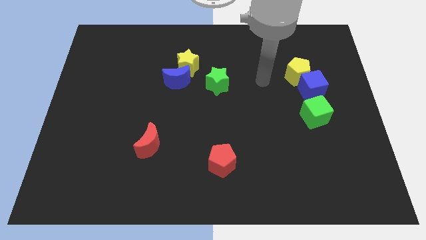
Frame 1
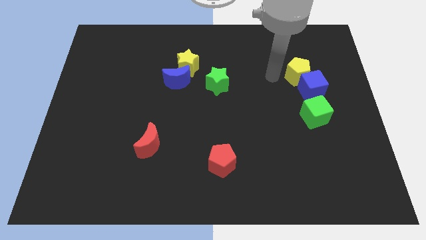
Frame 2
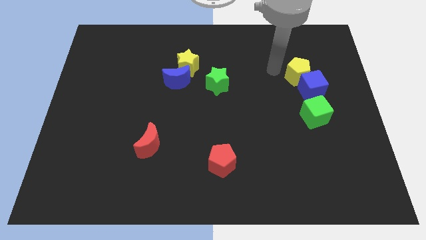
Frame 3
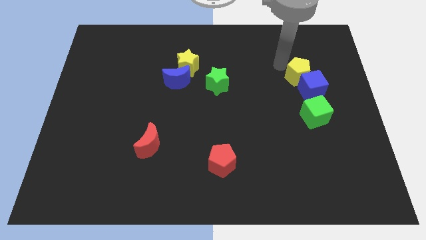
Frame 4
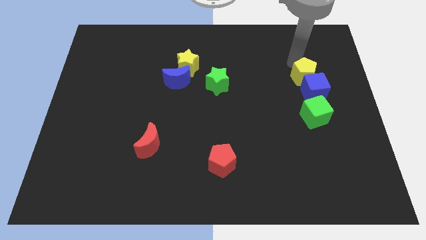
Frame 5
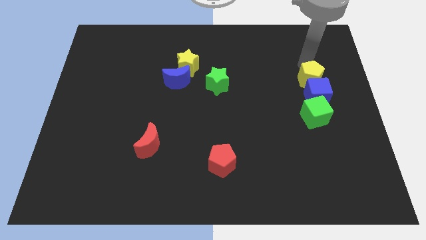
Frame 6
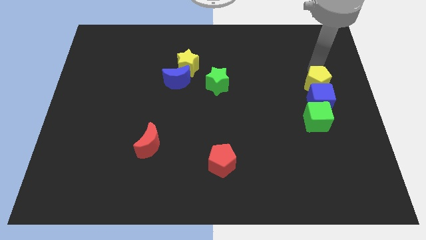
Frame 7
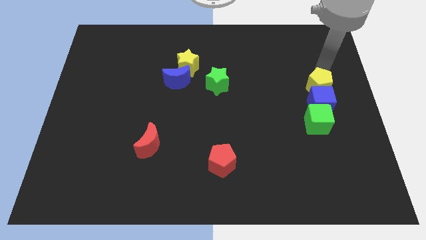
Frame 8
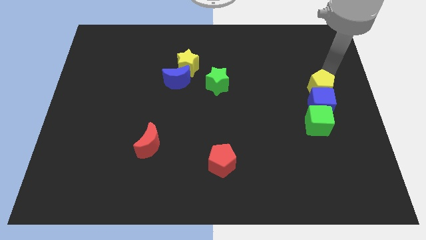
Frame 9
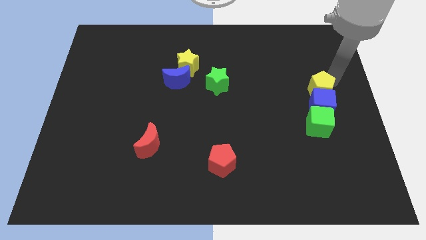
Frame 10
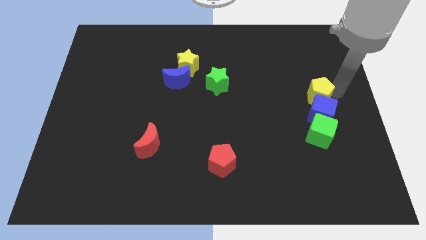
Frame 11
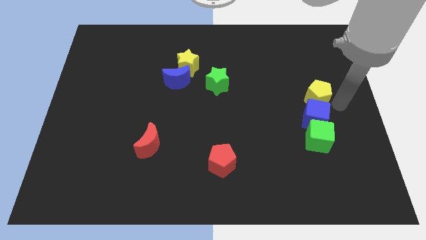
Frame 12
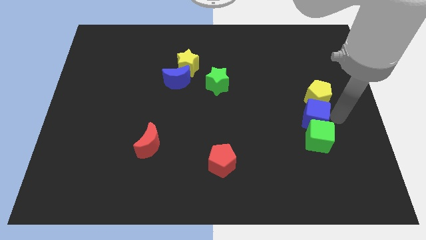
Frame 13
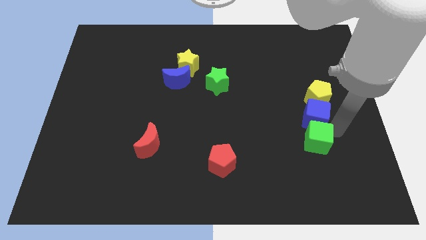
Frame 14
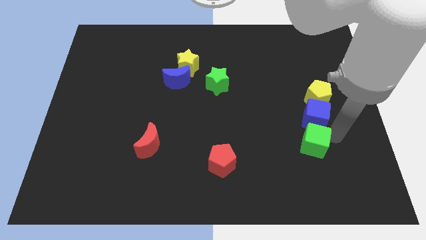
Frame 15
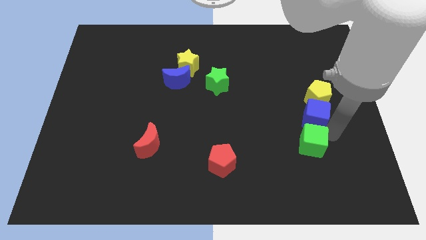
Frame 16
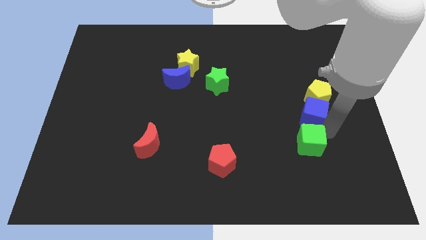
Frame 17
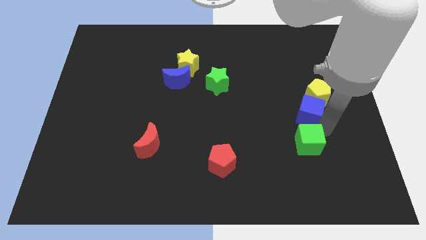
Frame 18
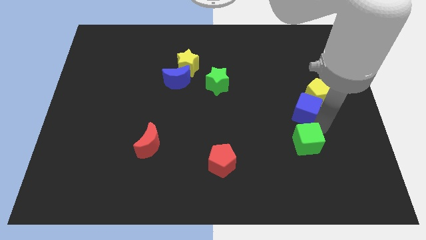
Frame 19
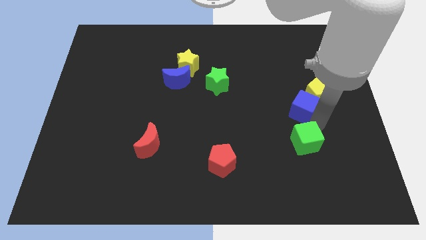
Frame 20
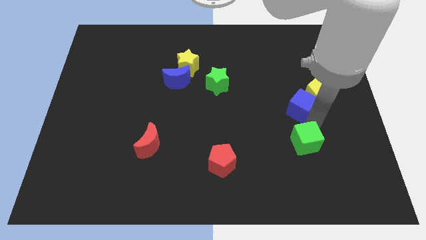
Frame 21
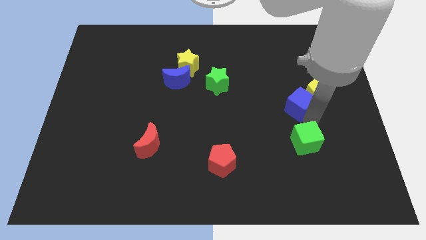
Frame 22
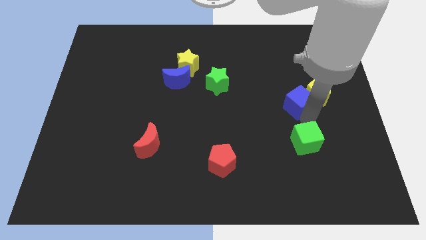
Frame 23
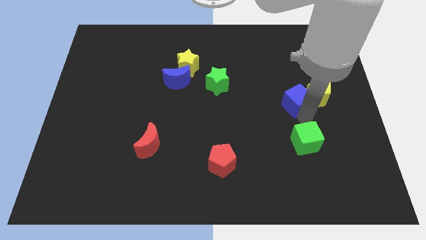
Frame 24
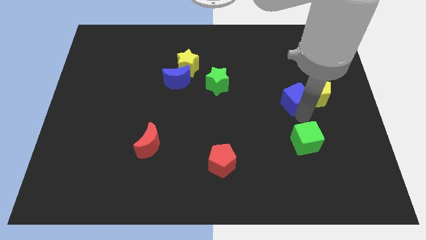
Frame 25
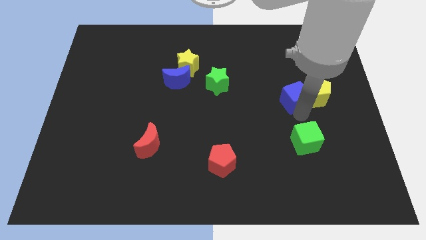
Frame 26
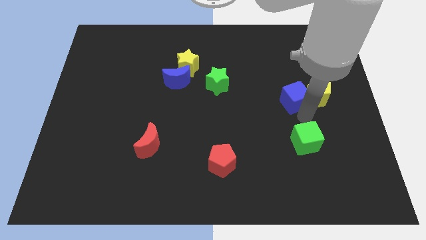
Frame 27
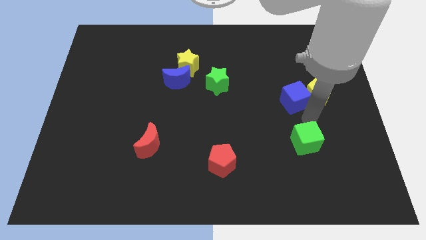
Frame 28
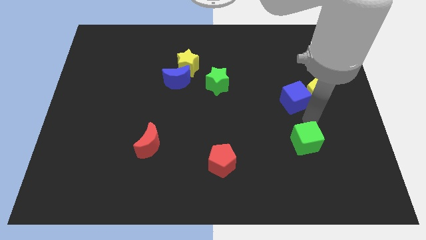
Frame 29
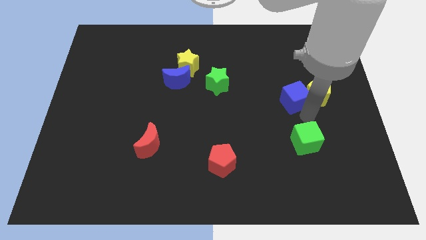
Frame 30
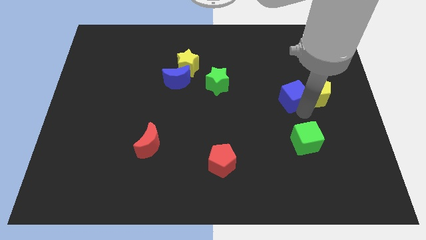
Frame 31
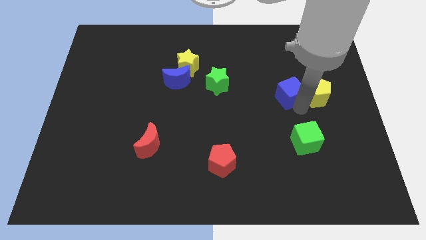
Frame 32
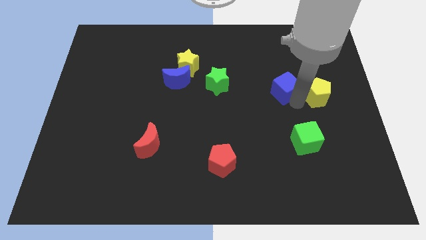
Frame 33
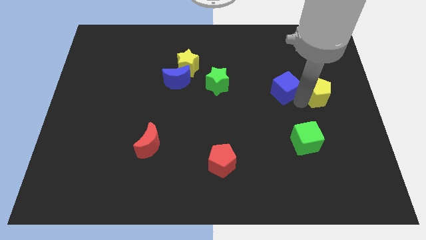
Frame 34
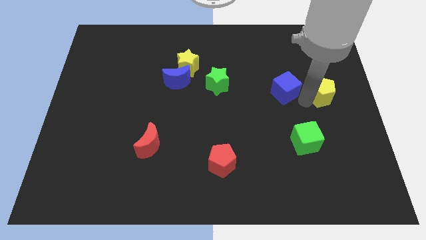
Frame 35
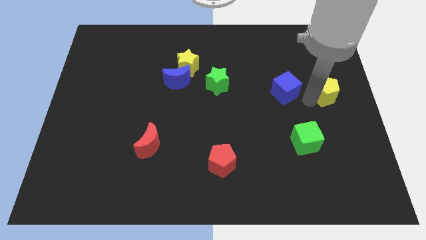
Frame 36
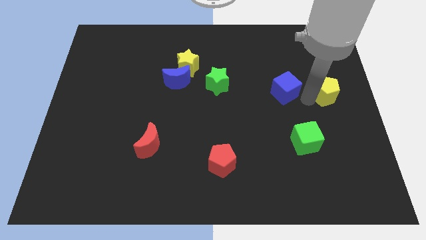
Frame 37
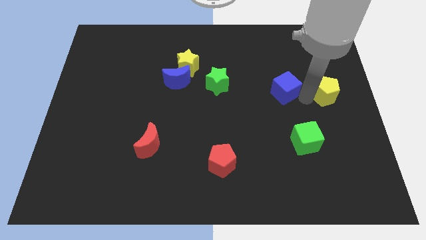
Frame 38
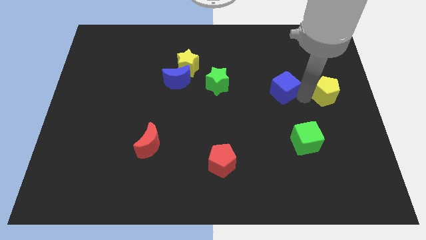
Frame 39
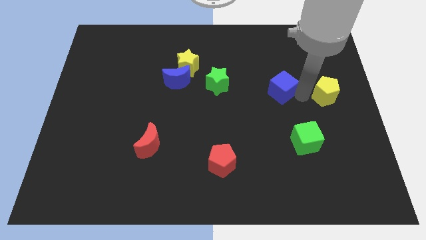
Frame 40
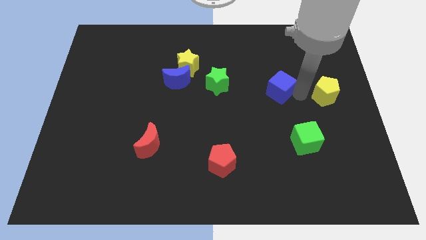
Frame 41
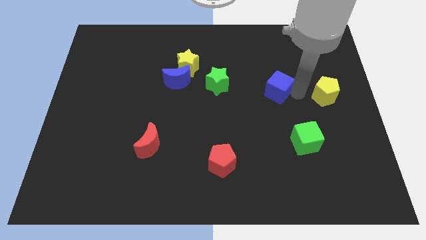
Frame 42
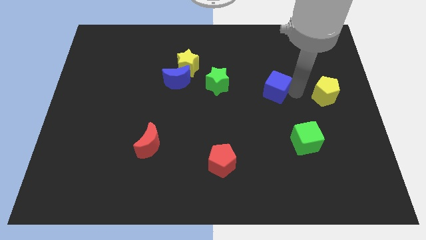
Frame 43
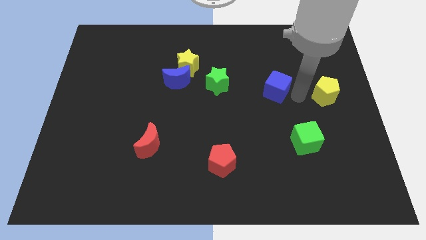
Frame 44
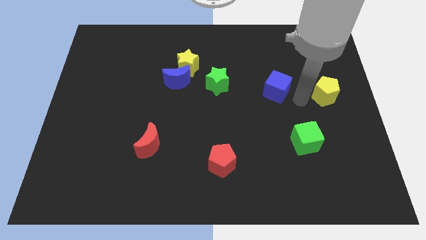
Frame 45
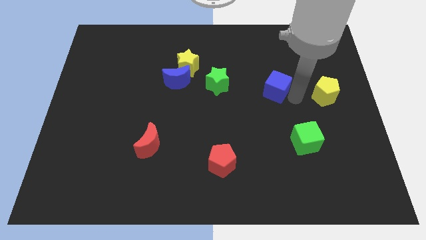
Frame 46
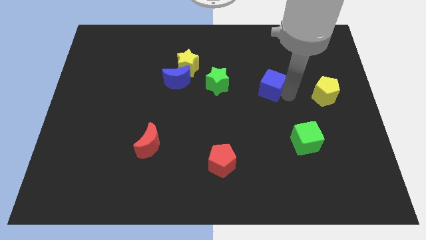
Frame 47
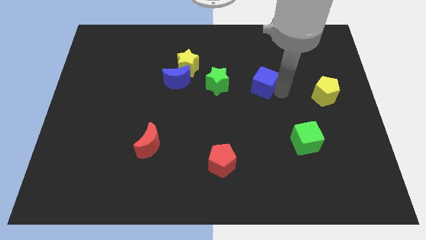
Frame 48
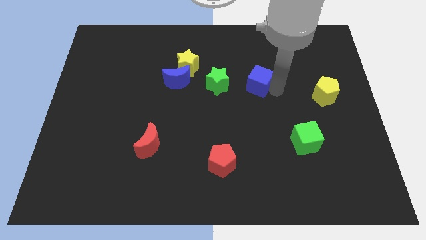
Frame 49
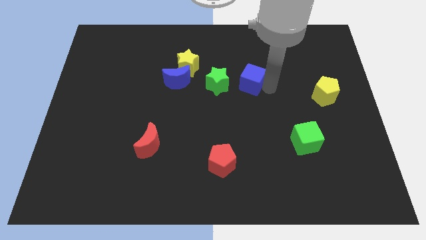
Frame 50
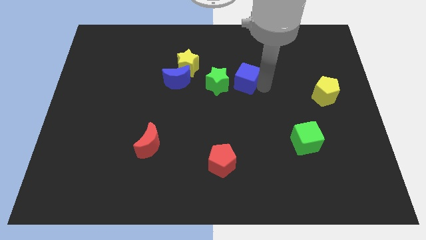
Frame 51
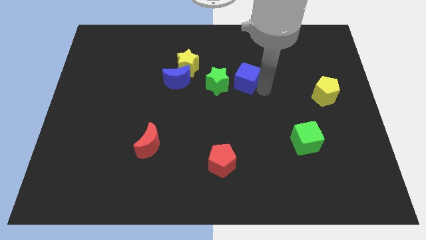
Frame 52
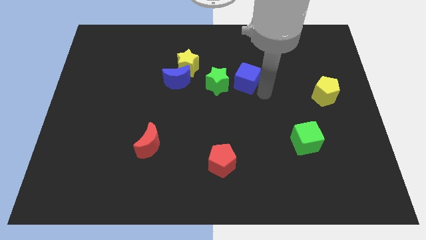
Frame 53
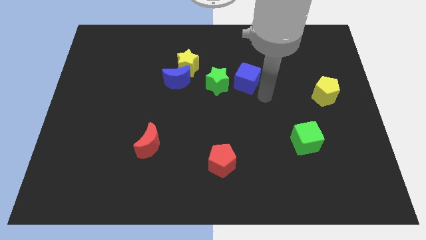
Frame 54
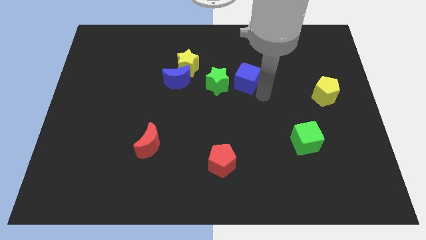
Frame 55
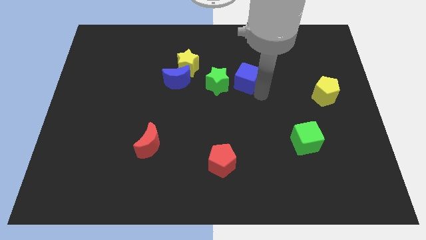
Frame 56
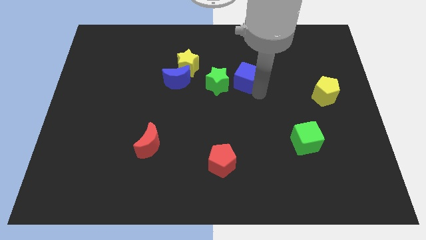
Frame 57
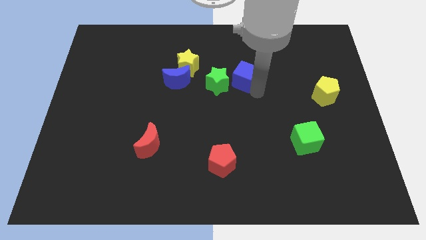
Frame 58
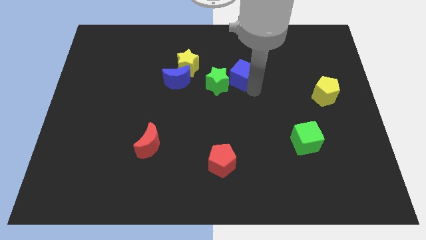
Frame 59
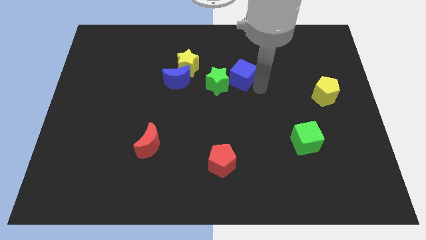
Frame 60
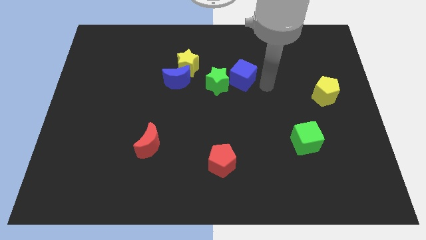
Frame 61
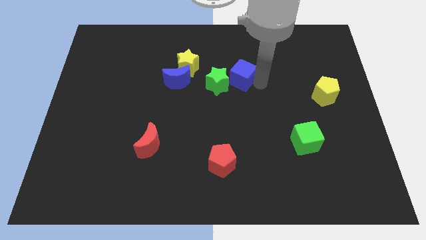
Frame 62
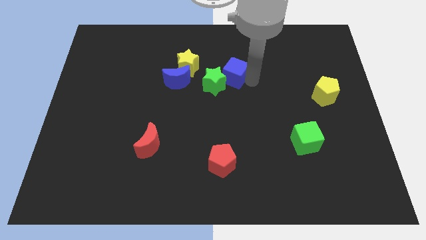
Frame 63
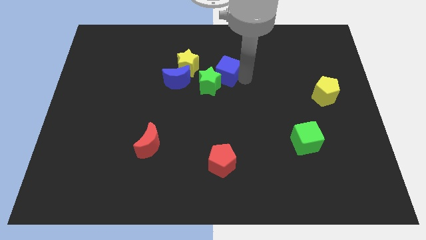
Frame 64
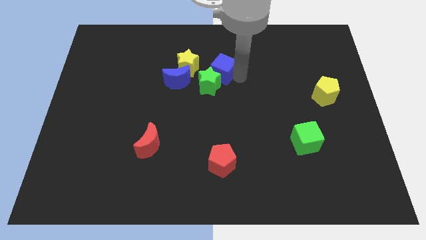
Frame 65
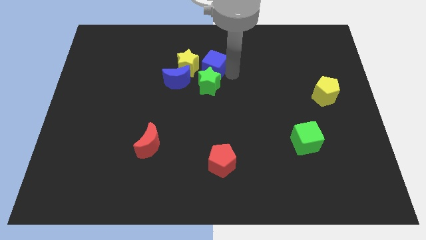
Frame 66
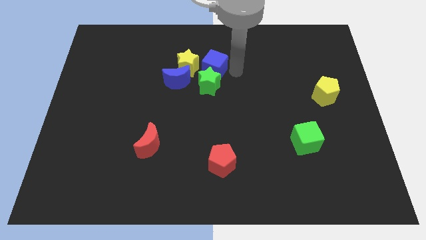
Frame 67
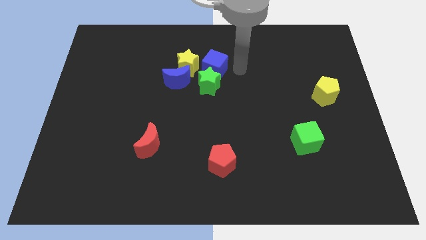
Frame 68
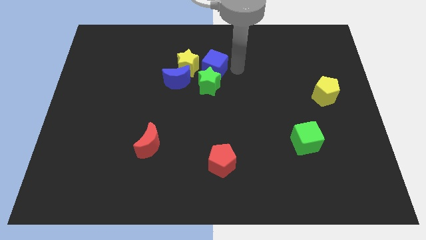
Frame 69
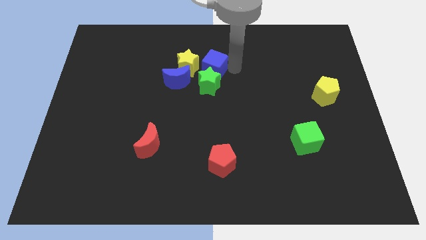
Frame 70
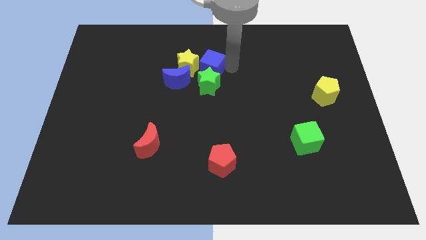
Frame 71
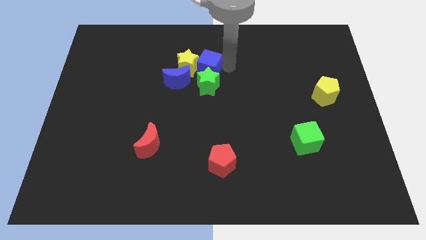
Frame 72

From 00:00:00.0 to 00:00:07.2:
push the blue cube close to the yellow star
